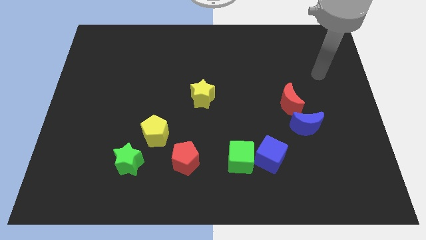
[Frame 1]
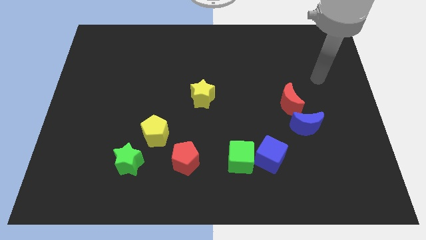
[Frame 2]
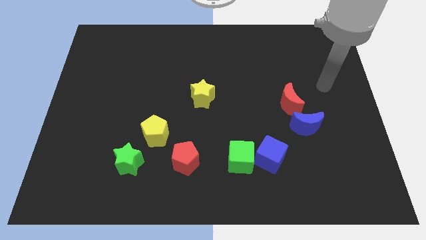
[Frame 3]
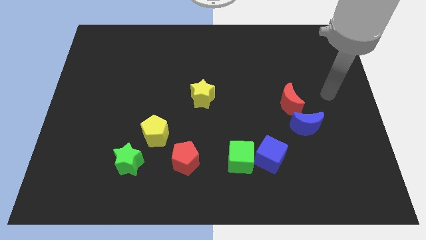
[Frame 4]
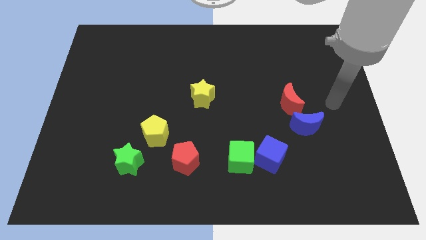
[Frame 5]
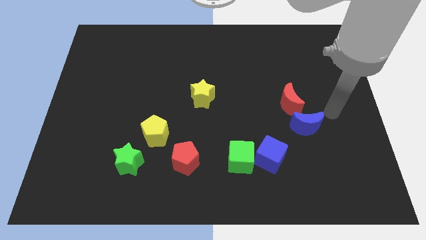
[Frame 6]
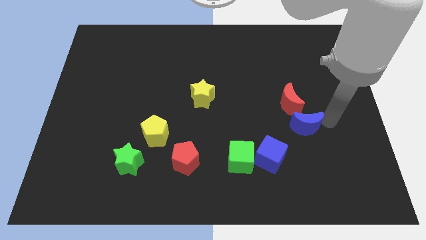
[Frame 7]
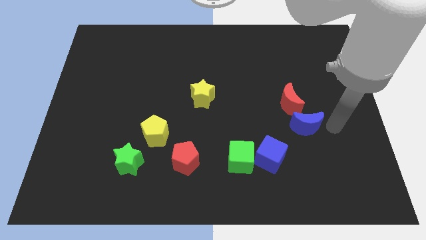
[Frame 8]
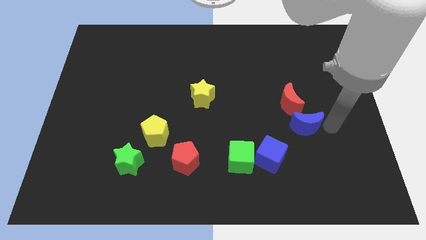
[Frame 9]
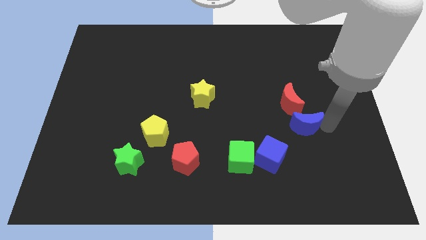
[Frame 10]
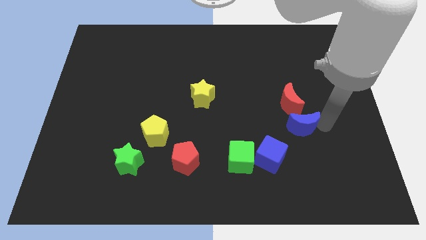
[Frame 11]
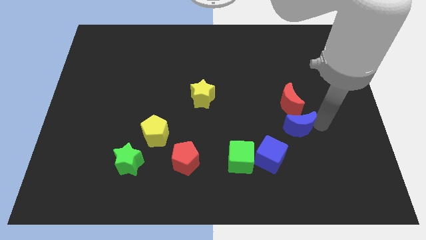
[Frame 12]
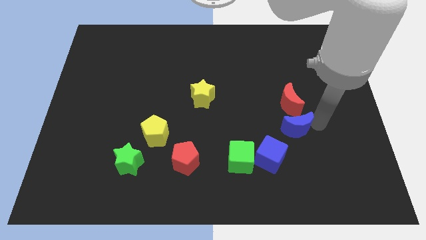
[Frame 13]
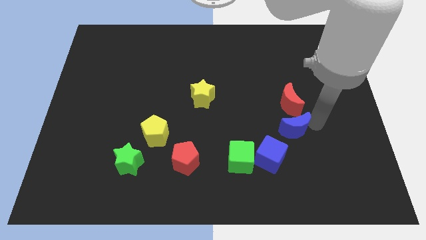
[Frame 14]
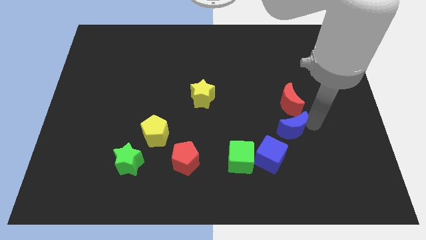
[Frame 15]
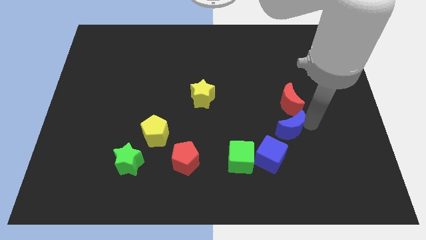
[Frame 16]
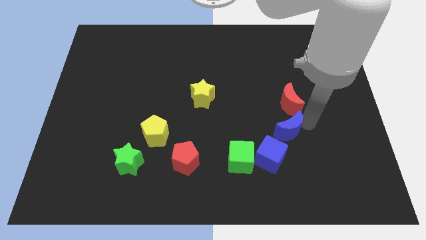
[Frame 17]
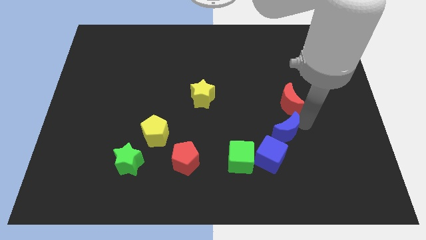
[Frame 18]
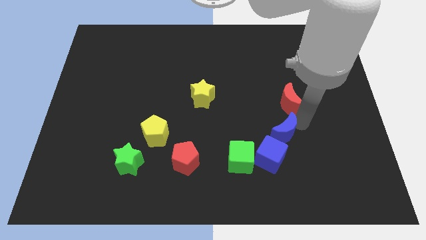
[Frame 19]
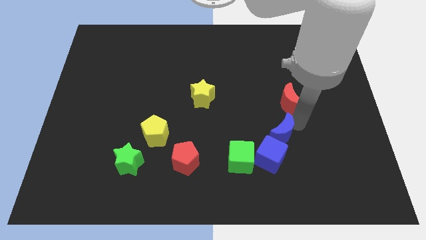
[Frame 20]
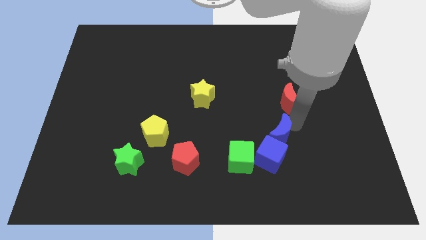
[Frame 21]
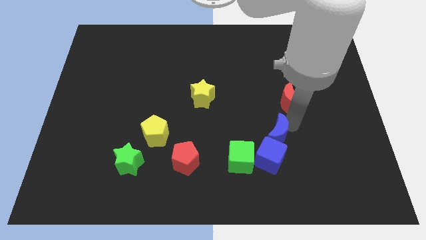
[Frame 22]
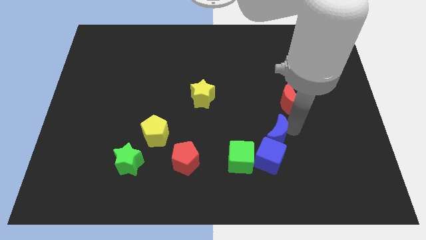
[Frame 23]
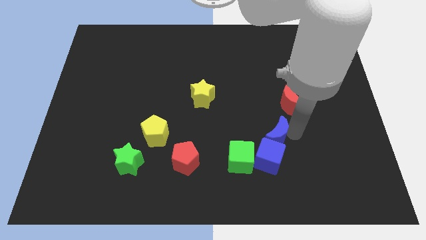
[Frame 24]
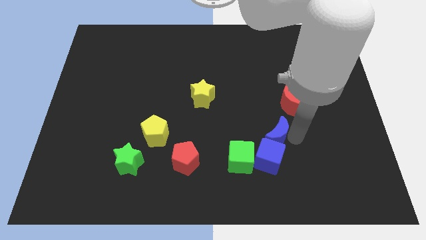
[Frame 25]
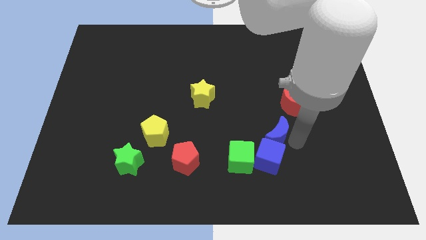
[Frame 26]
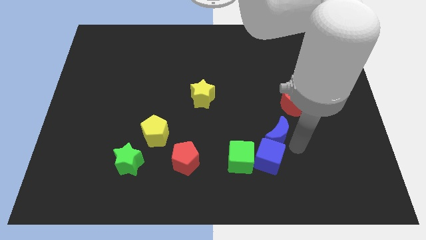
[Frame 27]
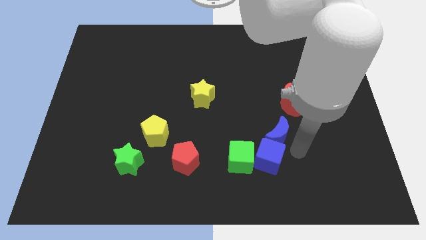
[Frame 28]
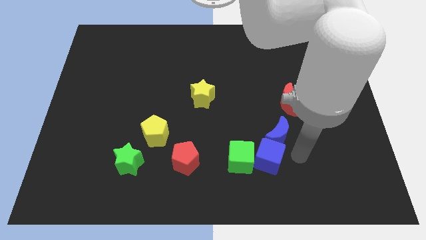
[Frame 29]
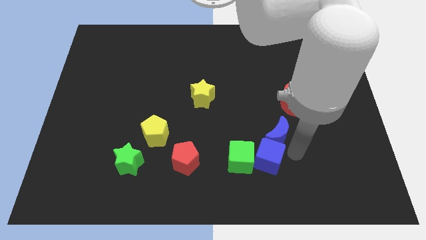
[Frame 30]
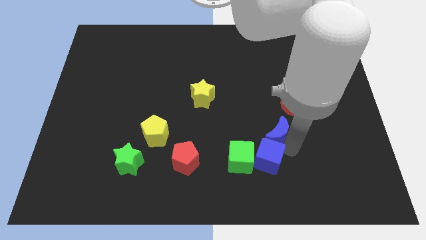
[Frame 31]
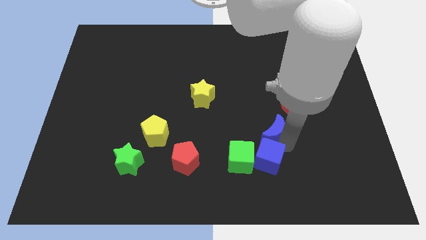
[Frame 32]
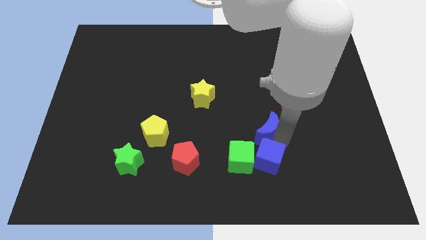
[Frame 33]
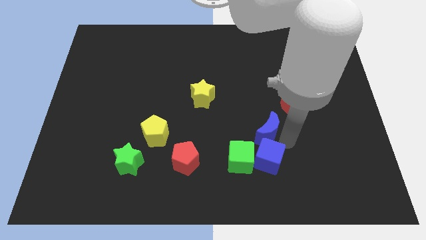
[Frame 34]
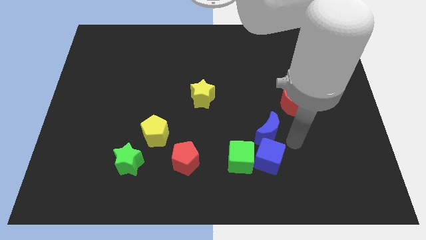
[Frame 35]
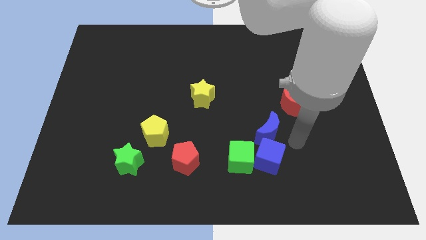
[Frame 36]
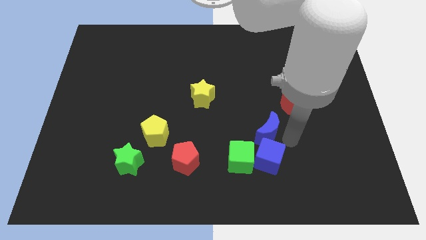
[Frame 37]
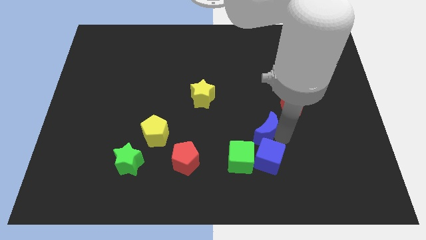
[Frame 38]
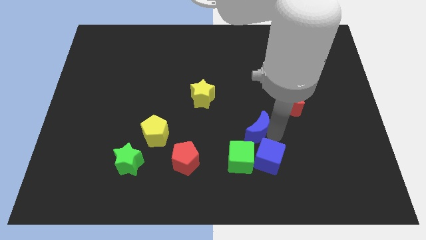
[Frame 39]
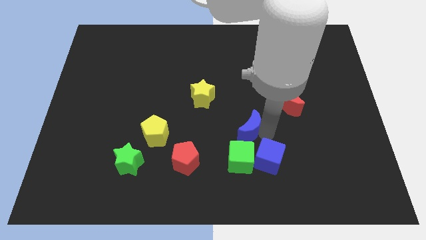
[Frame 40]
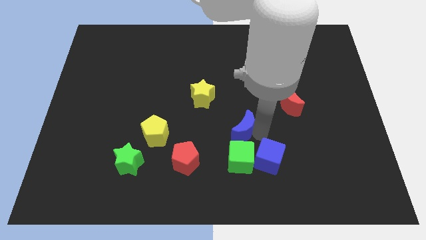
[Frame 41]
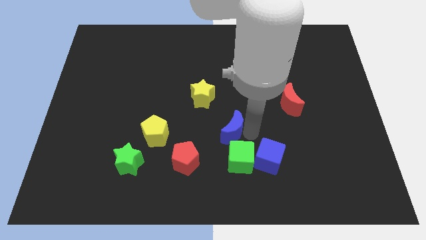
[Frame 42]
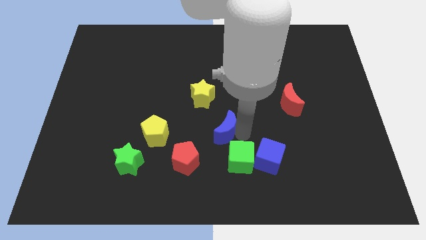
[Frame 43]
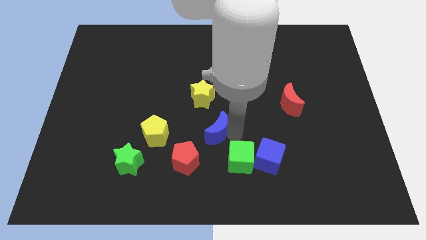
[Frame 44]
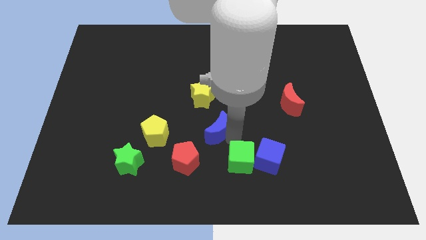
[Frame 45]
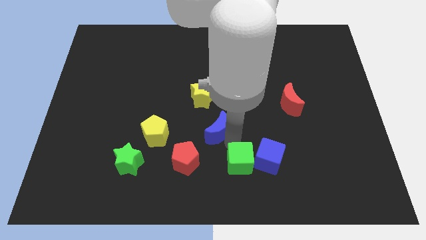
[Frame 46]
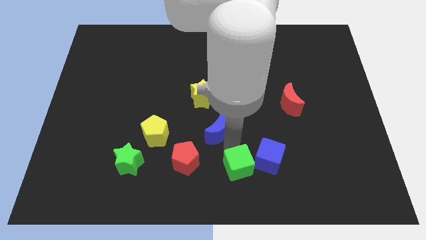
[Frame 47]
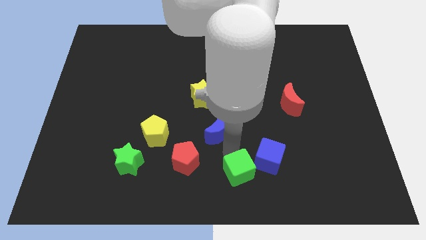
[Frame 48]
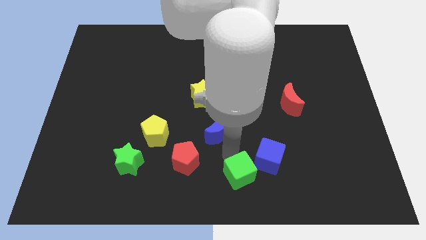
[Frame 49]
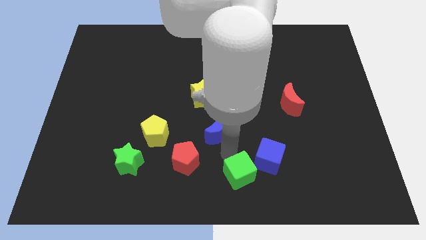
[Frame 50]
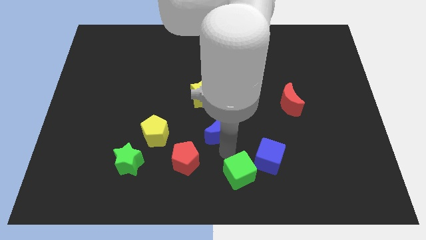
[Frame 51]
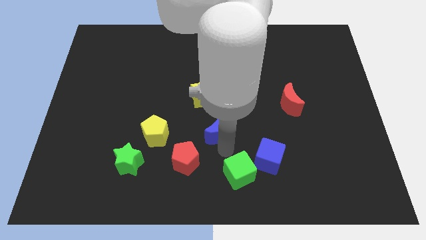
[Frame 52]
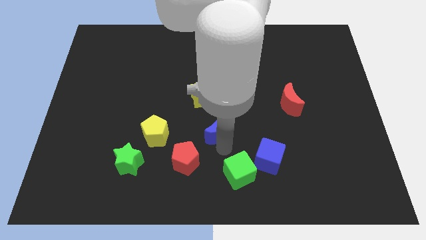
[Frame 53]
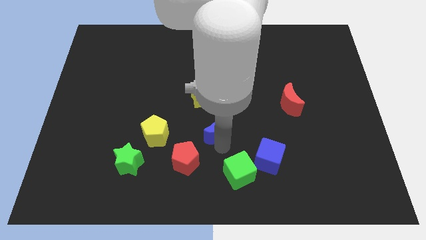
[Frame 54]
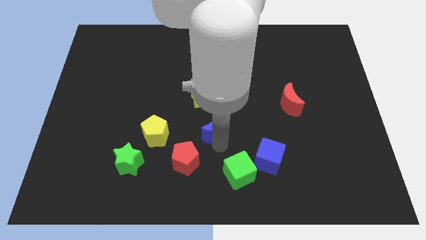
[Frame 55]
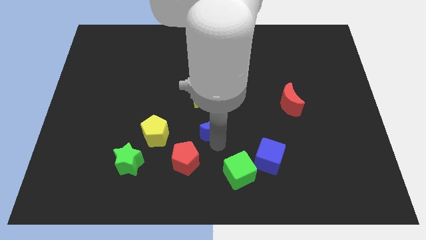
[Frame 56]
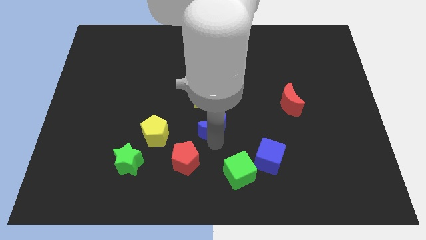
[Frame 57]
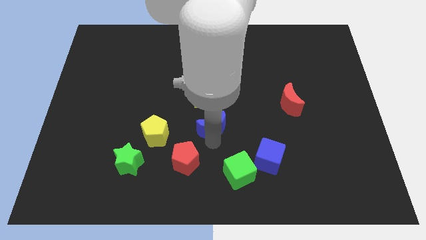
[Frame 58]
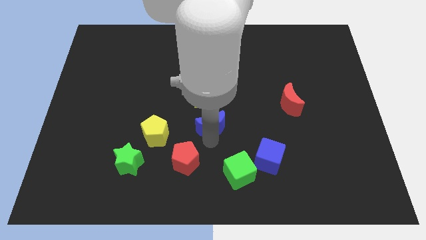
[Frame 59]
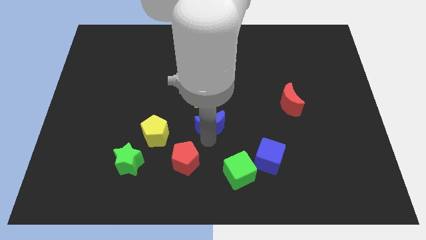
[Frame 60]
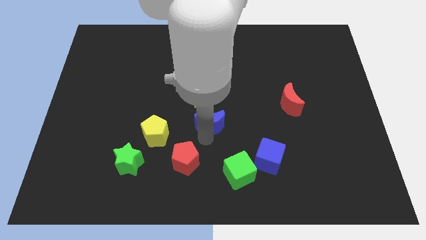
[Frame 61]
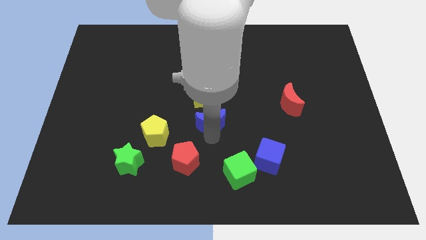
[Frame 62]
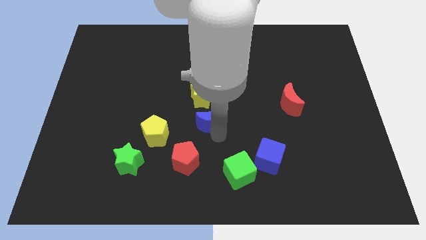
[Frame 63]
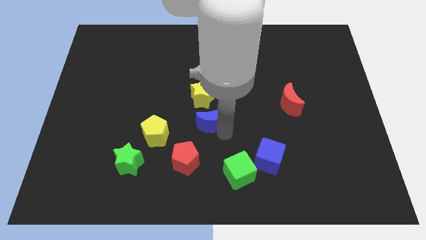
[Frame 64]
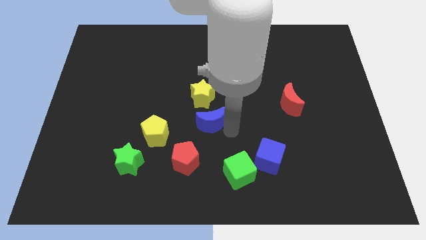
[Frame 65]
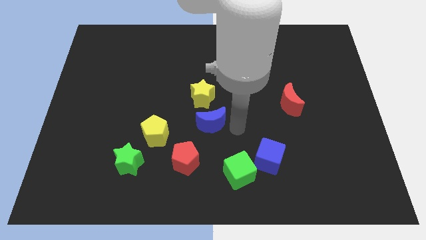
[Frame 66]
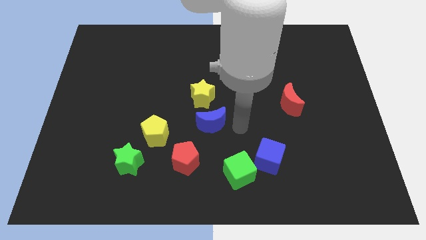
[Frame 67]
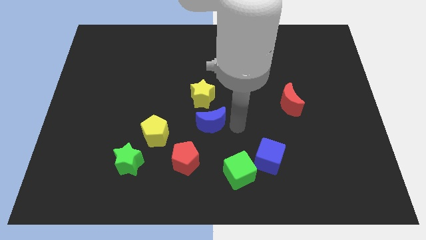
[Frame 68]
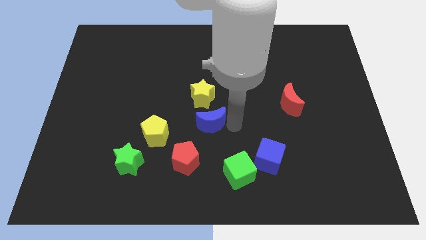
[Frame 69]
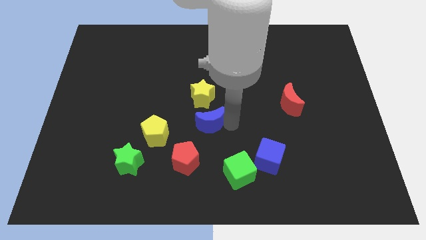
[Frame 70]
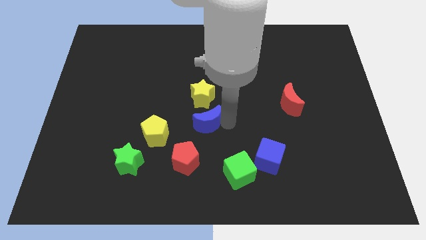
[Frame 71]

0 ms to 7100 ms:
slide the blue moon above the red pentagon
